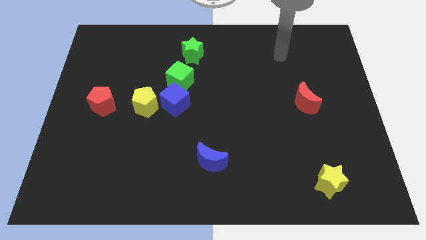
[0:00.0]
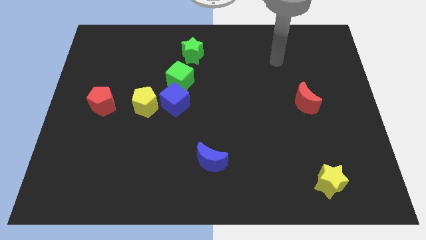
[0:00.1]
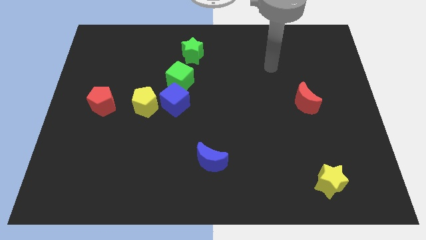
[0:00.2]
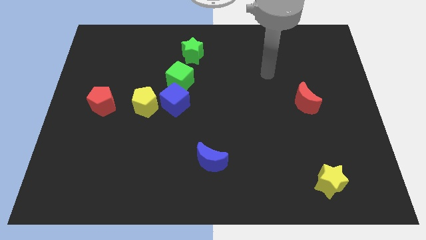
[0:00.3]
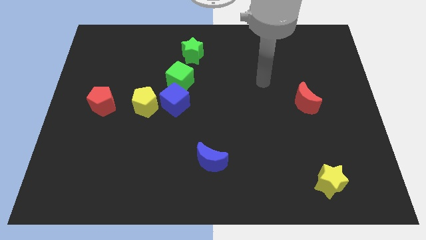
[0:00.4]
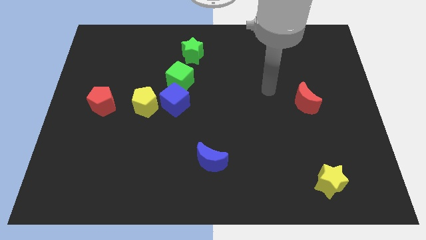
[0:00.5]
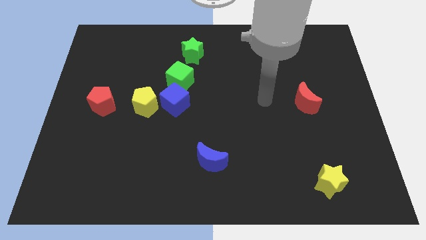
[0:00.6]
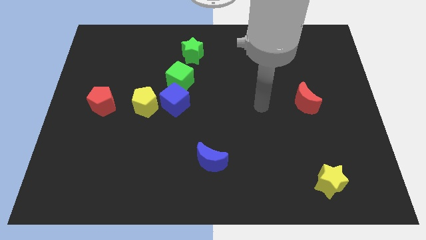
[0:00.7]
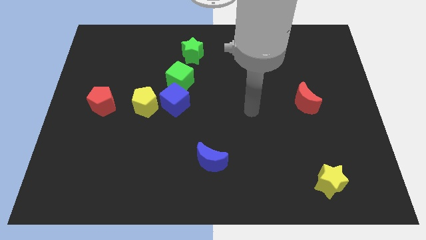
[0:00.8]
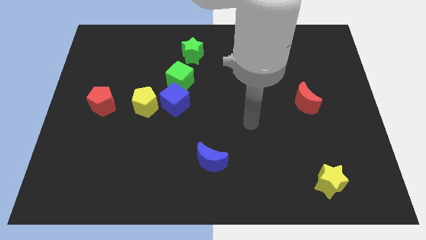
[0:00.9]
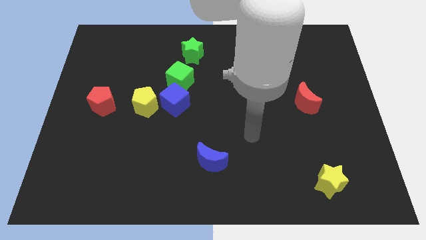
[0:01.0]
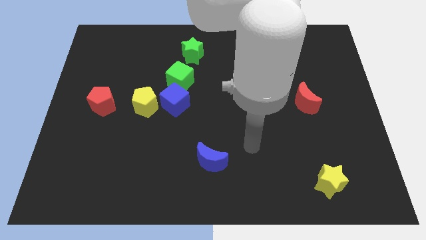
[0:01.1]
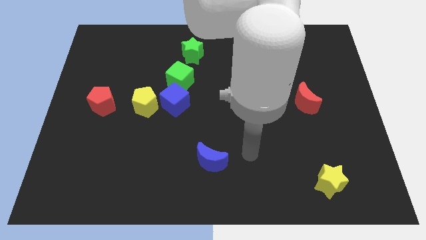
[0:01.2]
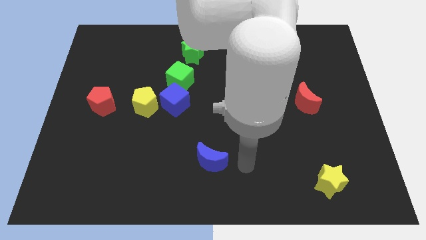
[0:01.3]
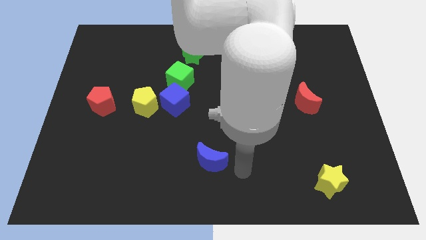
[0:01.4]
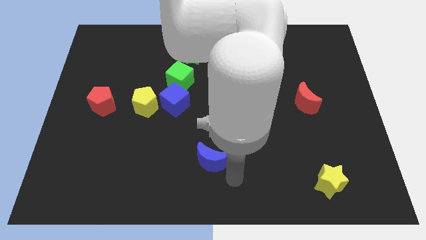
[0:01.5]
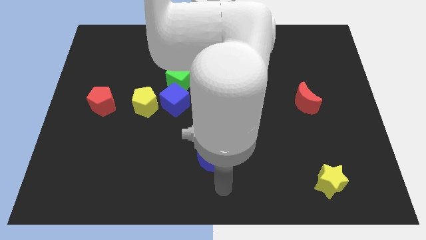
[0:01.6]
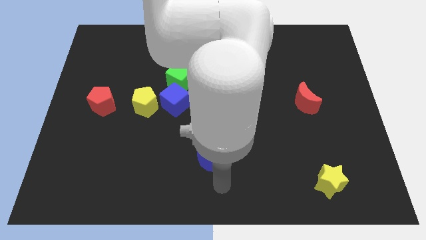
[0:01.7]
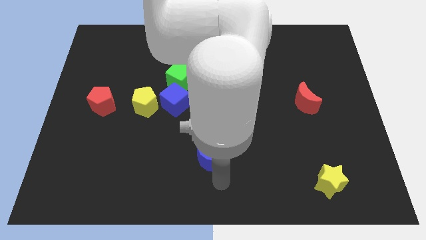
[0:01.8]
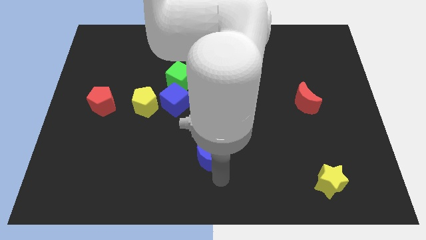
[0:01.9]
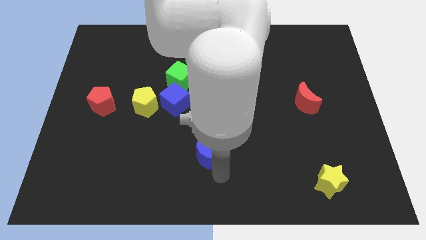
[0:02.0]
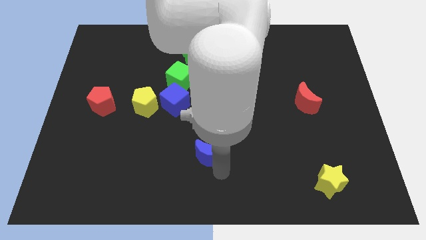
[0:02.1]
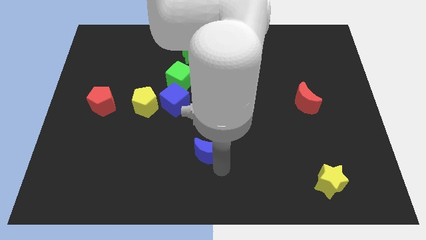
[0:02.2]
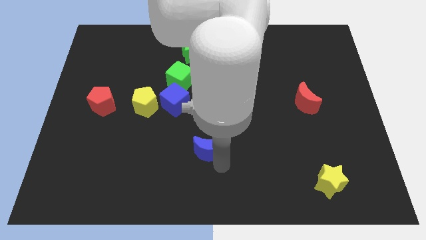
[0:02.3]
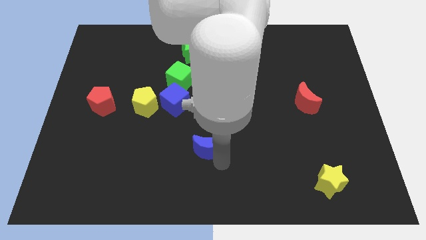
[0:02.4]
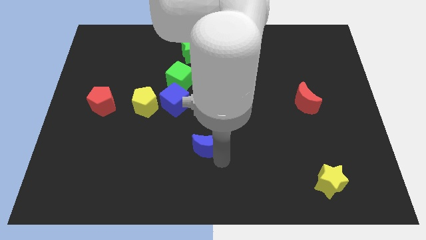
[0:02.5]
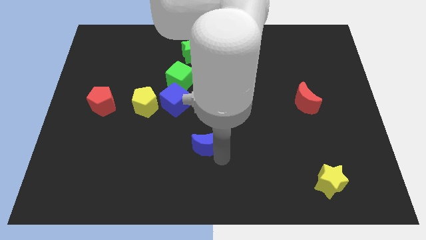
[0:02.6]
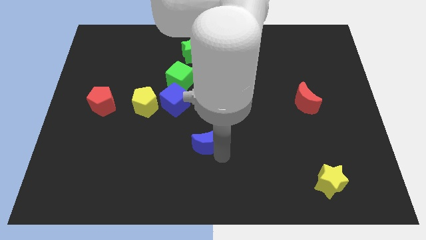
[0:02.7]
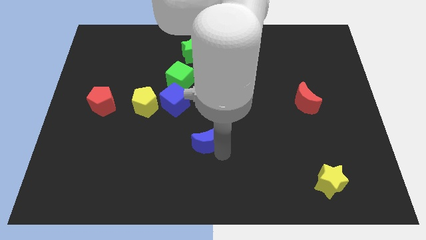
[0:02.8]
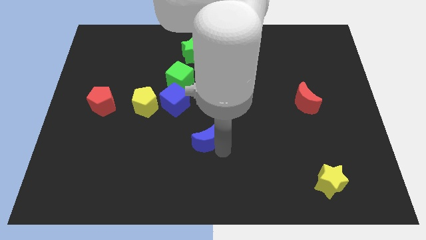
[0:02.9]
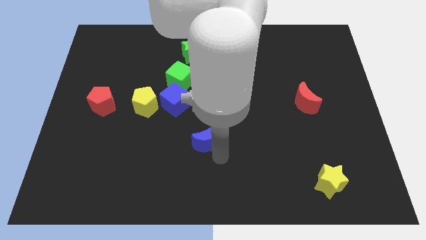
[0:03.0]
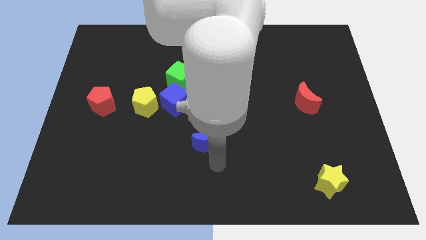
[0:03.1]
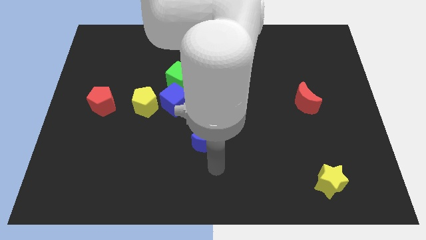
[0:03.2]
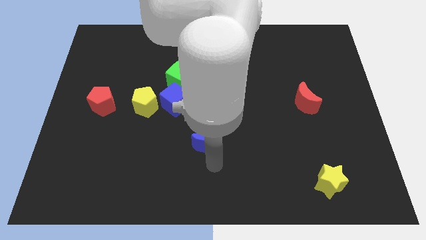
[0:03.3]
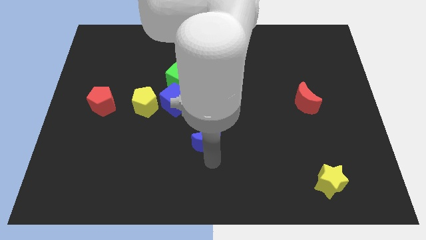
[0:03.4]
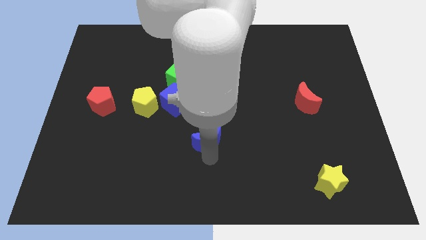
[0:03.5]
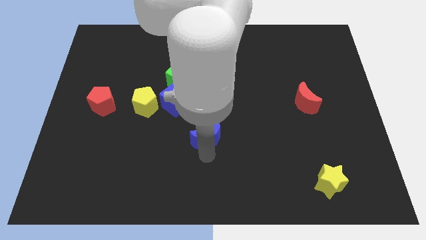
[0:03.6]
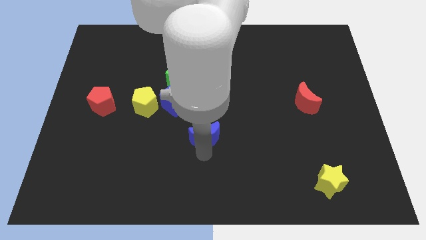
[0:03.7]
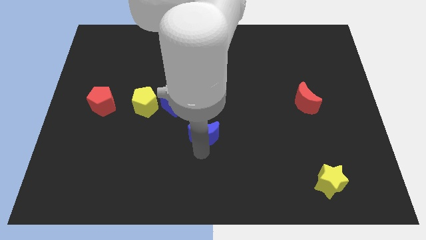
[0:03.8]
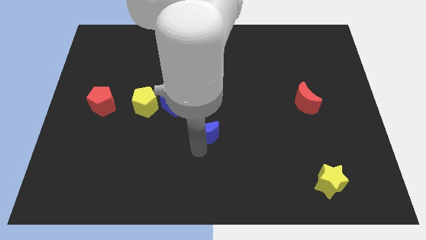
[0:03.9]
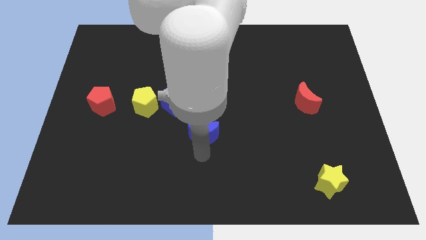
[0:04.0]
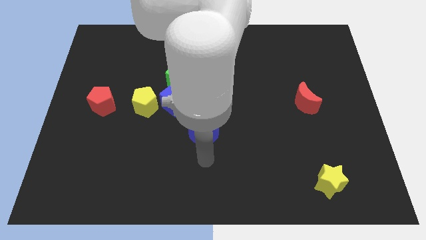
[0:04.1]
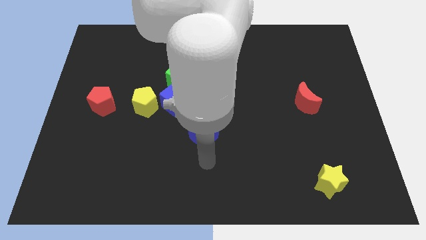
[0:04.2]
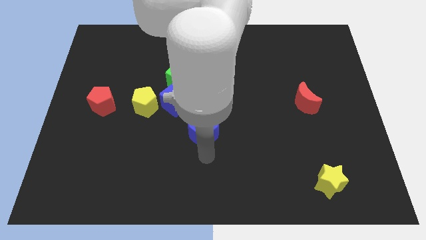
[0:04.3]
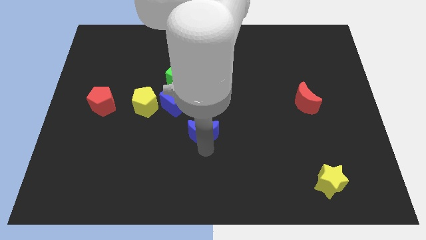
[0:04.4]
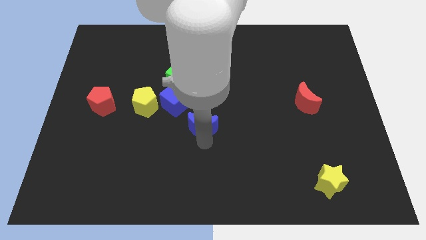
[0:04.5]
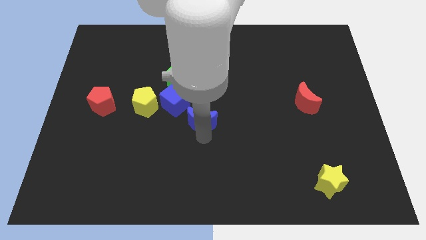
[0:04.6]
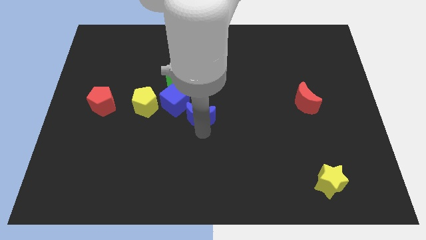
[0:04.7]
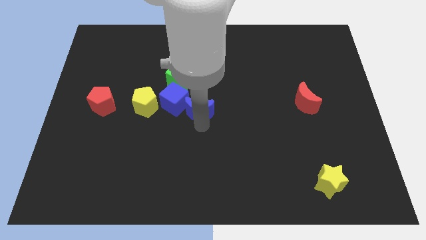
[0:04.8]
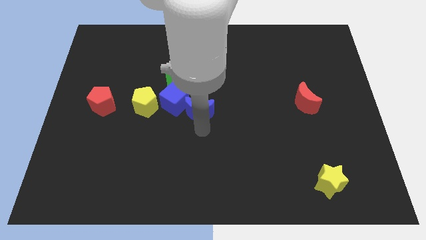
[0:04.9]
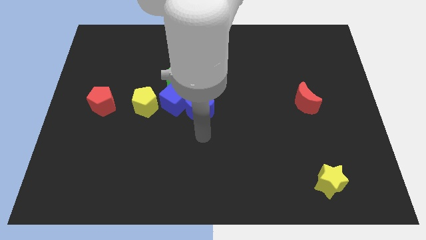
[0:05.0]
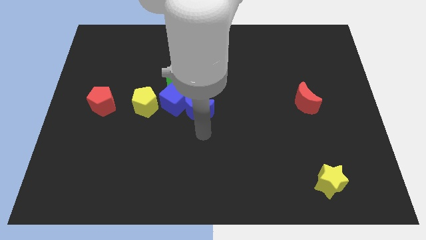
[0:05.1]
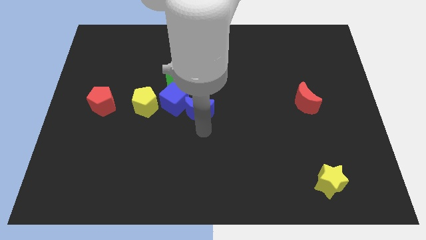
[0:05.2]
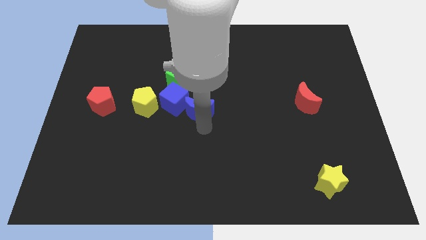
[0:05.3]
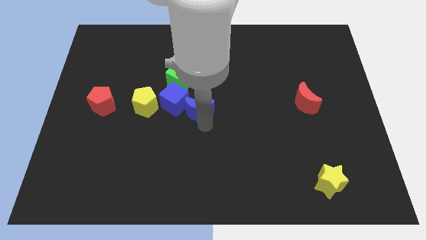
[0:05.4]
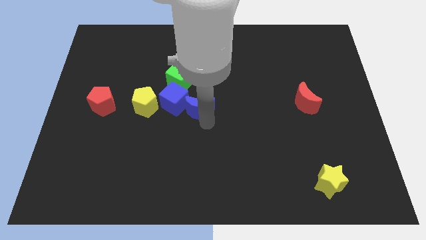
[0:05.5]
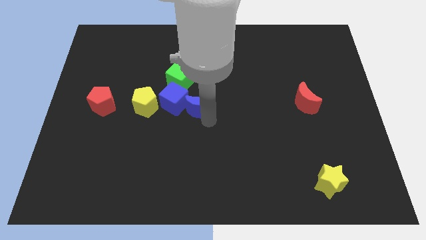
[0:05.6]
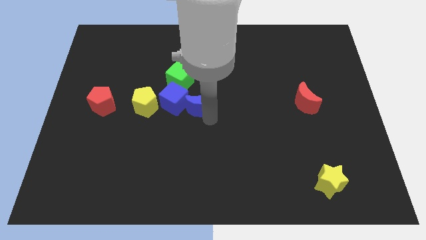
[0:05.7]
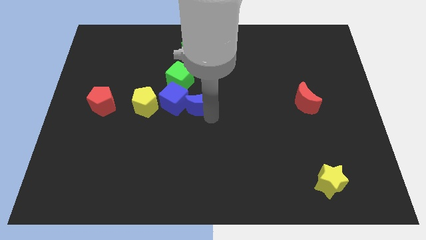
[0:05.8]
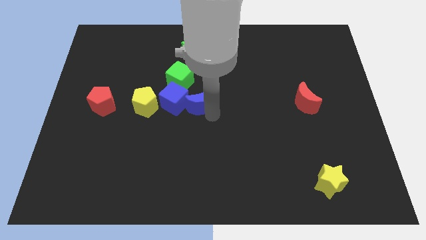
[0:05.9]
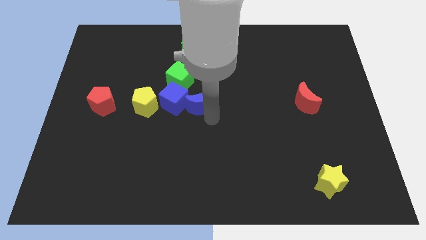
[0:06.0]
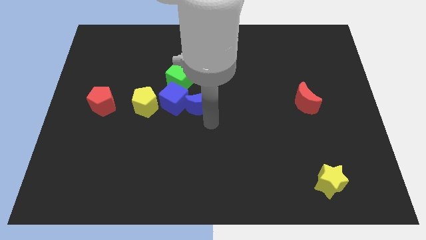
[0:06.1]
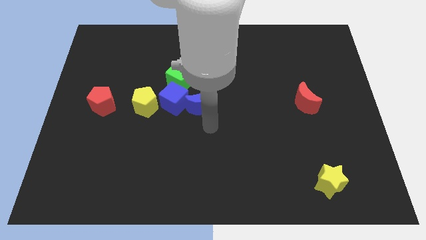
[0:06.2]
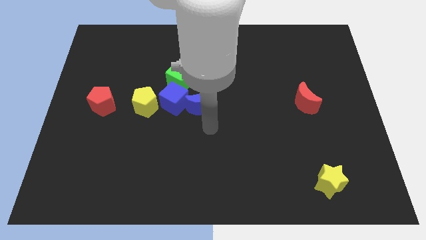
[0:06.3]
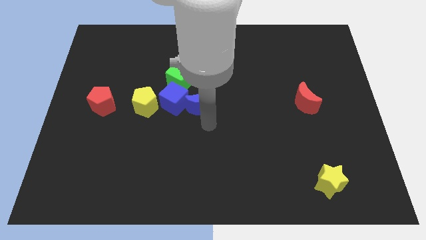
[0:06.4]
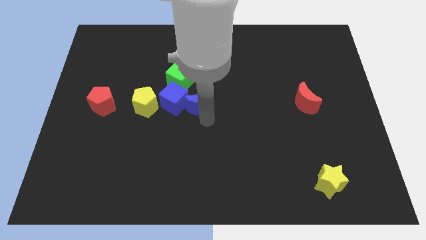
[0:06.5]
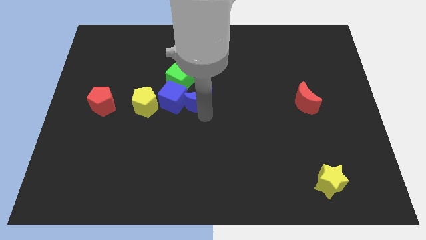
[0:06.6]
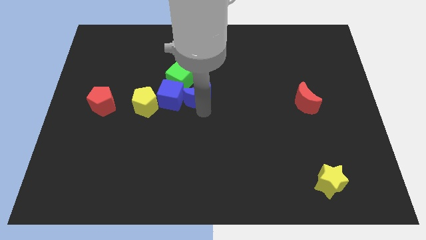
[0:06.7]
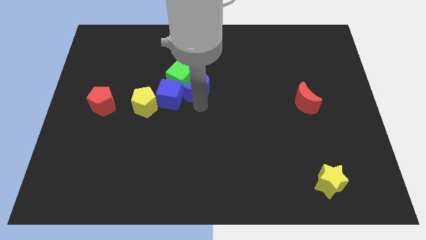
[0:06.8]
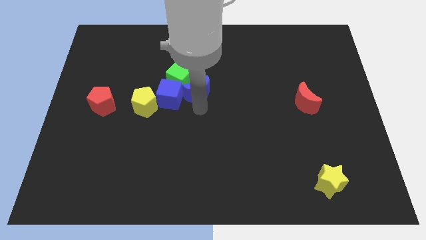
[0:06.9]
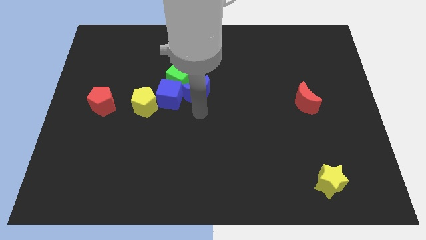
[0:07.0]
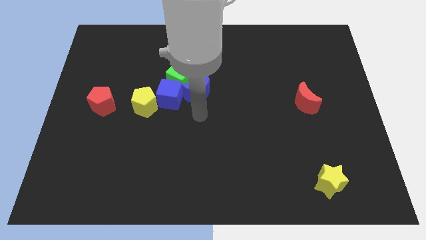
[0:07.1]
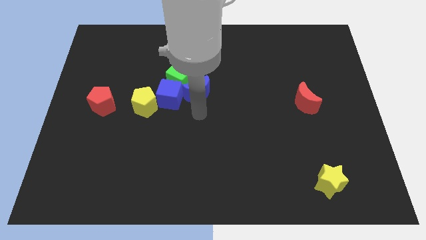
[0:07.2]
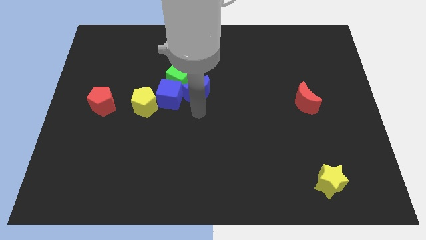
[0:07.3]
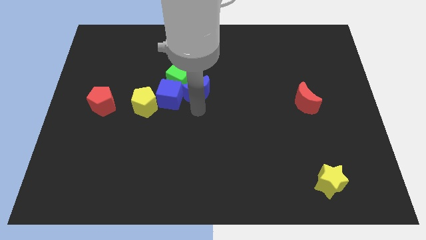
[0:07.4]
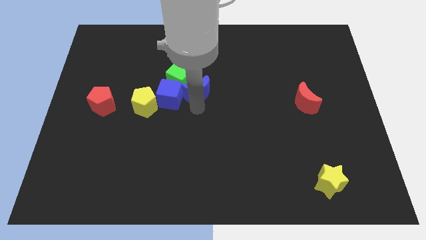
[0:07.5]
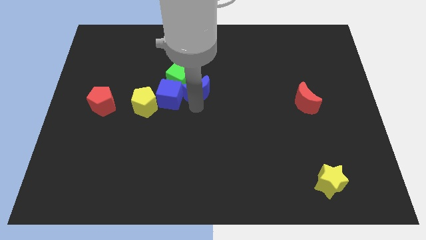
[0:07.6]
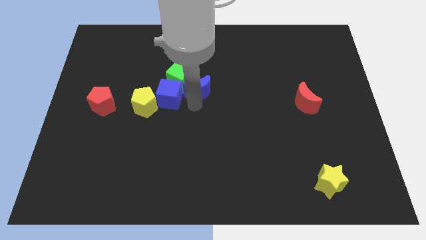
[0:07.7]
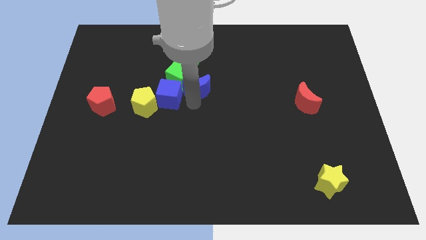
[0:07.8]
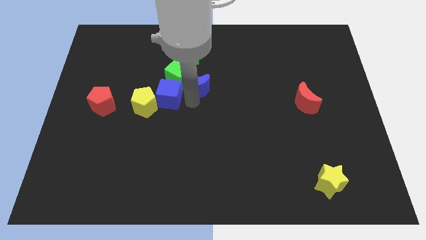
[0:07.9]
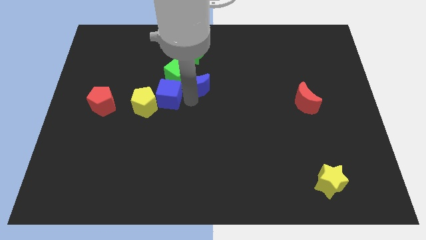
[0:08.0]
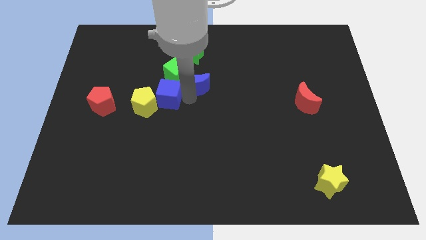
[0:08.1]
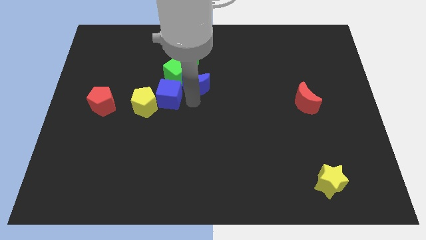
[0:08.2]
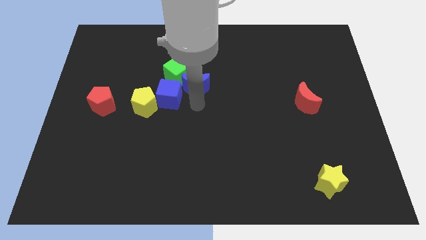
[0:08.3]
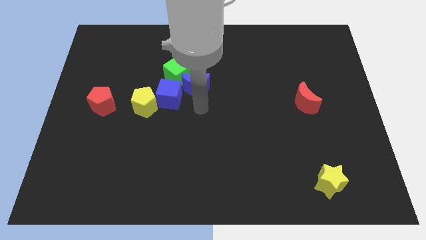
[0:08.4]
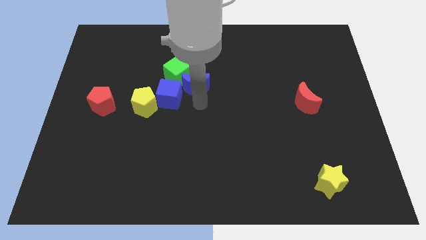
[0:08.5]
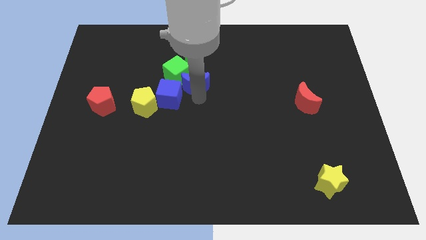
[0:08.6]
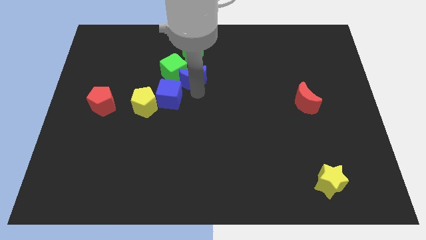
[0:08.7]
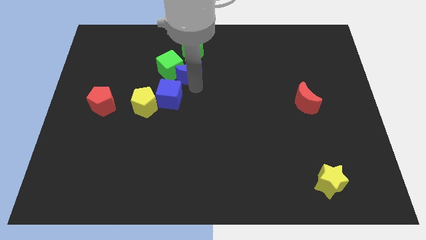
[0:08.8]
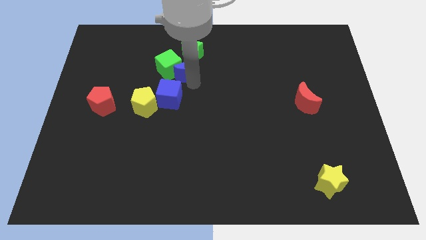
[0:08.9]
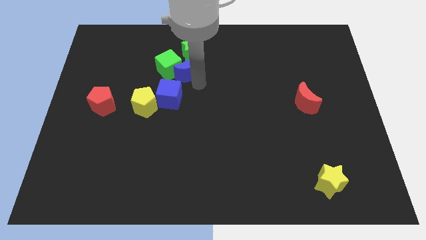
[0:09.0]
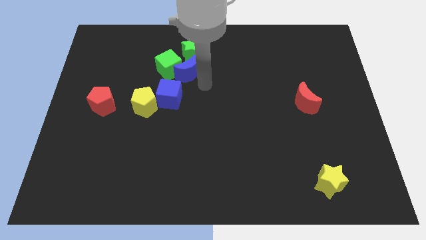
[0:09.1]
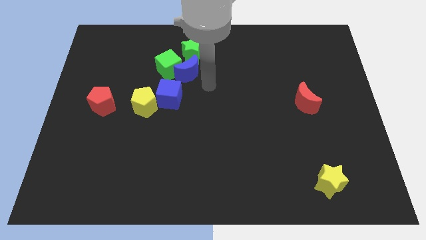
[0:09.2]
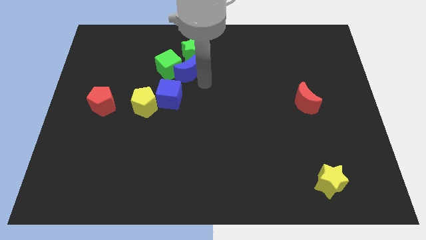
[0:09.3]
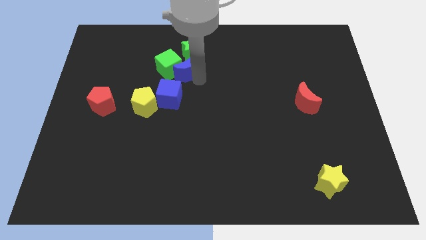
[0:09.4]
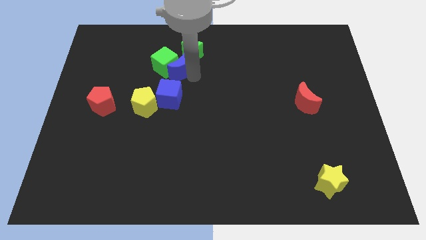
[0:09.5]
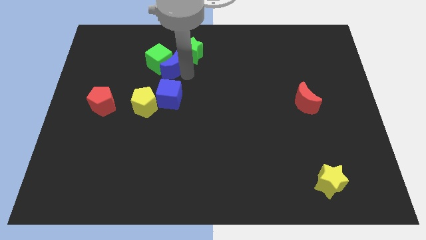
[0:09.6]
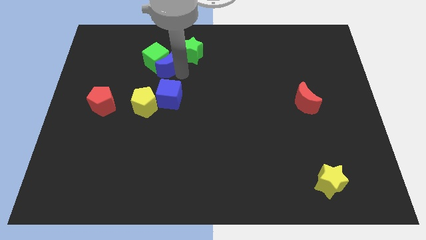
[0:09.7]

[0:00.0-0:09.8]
put the blue moon left of the green star
